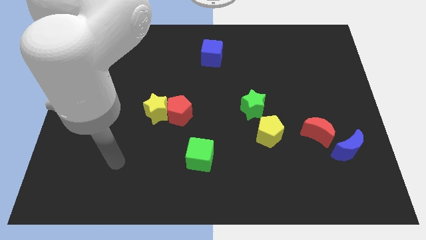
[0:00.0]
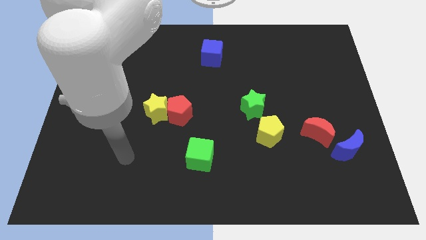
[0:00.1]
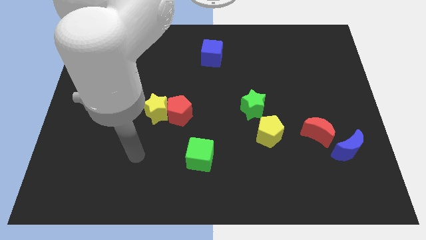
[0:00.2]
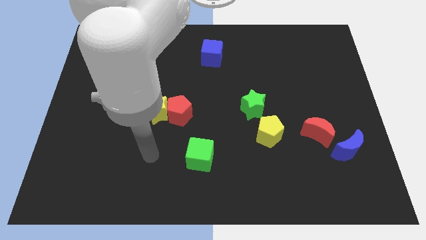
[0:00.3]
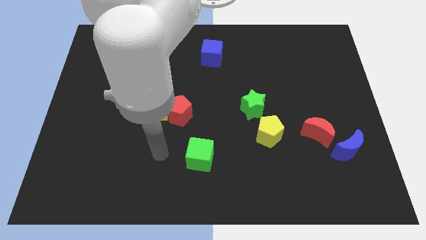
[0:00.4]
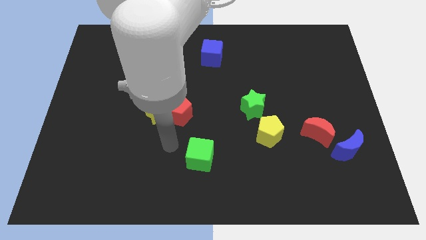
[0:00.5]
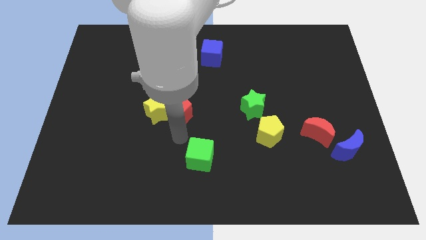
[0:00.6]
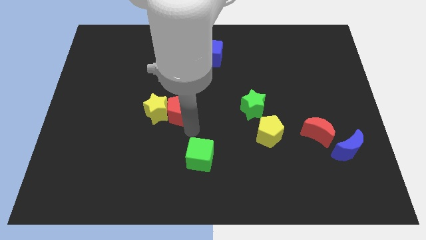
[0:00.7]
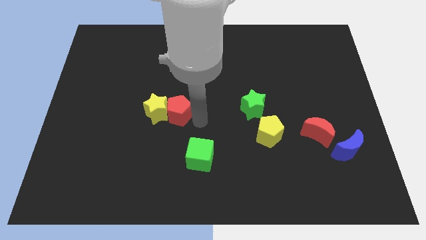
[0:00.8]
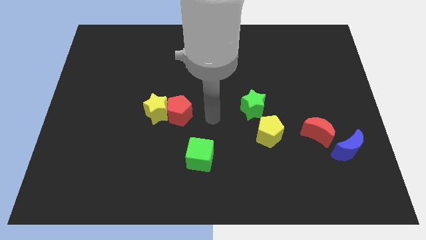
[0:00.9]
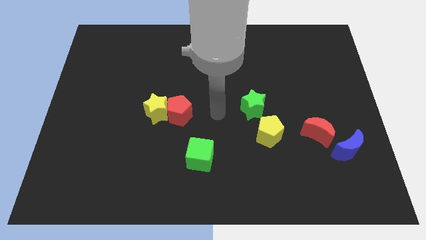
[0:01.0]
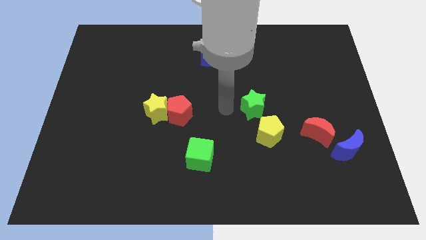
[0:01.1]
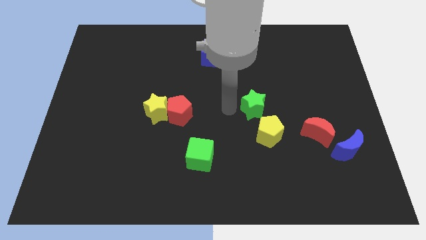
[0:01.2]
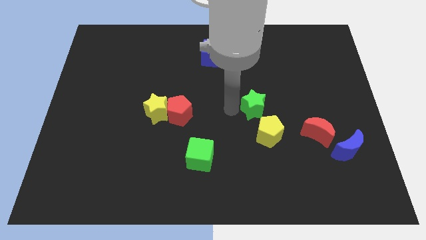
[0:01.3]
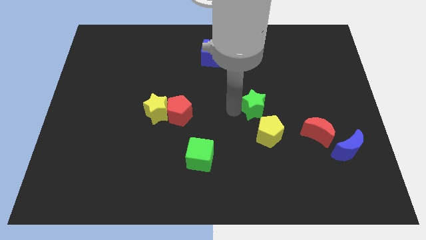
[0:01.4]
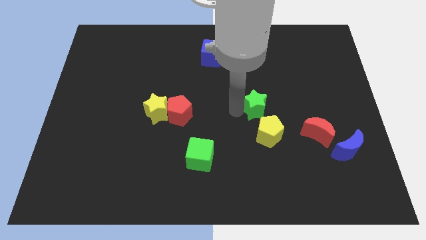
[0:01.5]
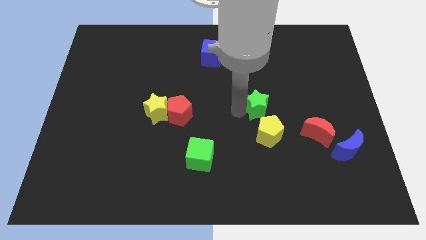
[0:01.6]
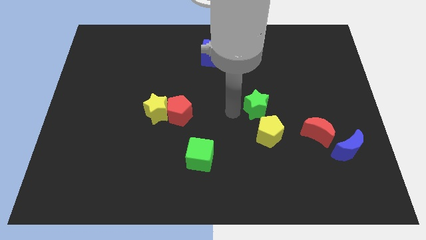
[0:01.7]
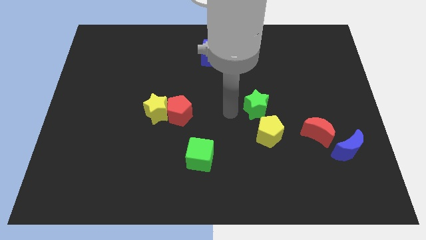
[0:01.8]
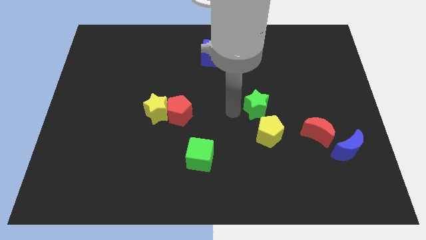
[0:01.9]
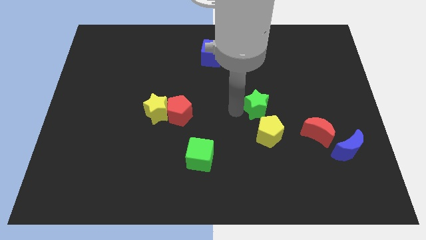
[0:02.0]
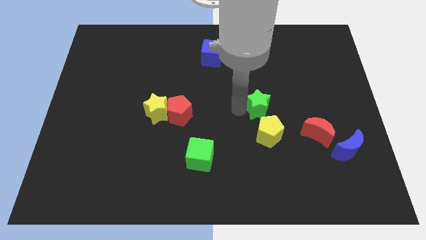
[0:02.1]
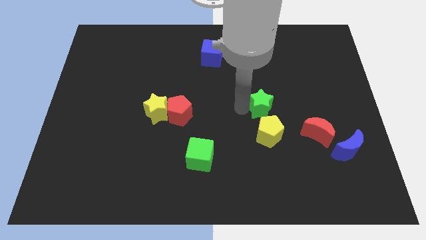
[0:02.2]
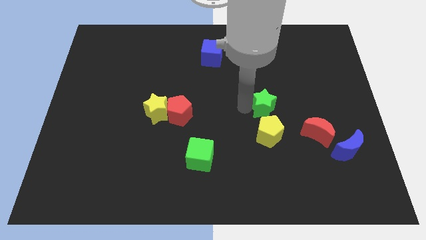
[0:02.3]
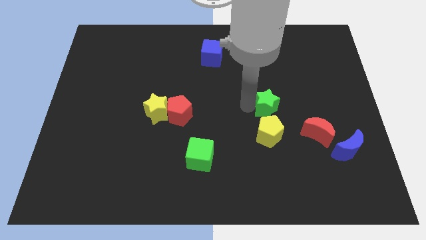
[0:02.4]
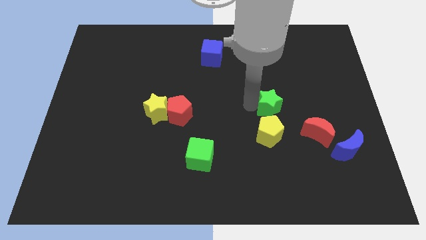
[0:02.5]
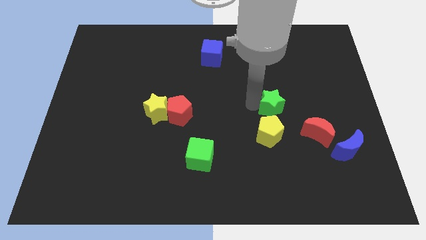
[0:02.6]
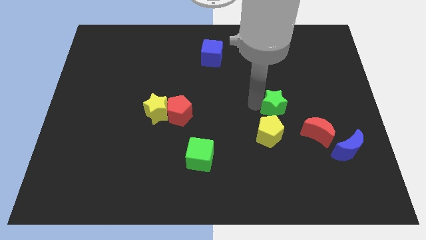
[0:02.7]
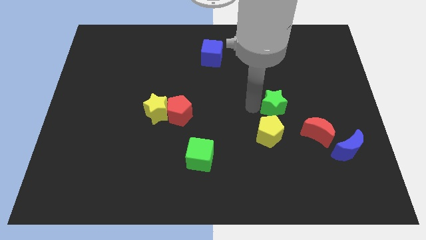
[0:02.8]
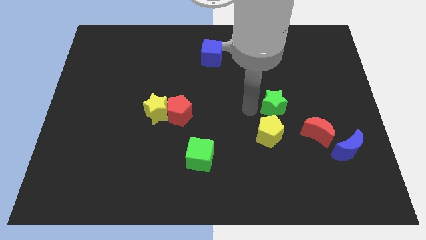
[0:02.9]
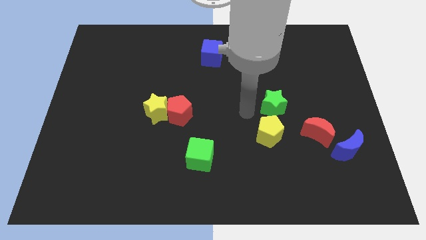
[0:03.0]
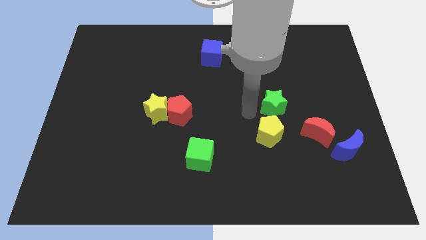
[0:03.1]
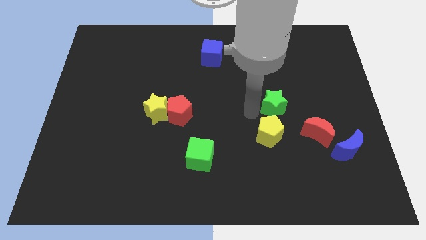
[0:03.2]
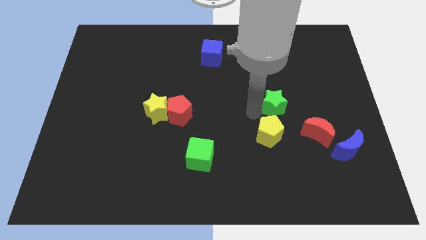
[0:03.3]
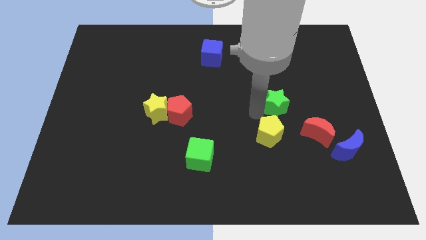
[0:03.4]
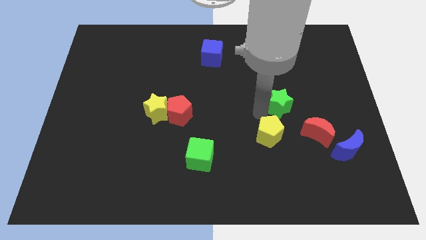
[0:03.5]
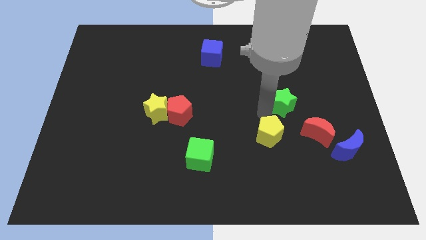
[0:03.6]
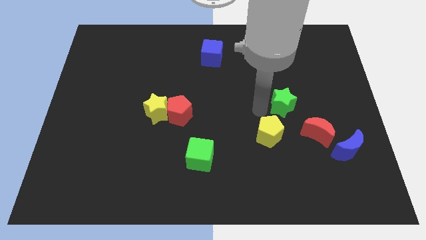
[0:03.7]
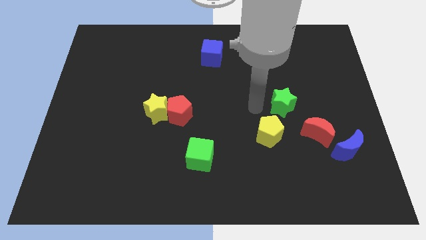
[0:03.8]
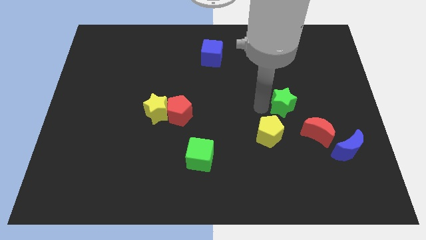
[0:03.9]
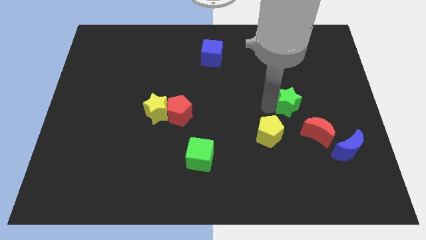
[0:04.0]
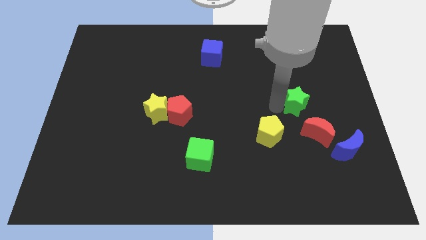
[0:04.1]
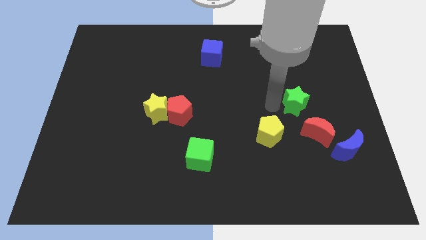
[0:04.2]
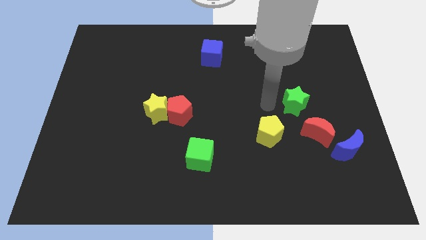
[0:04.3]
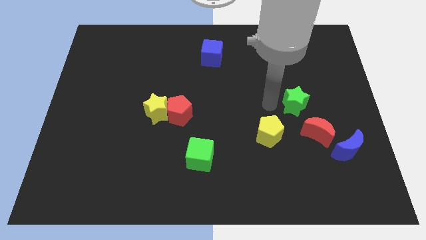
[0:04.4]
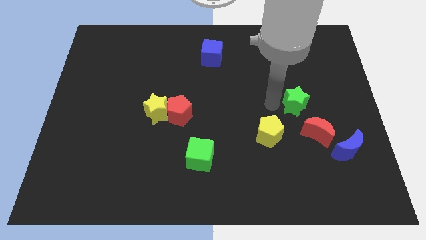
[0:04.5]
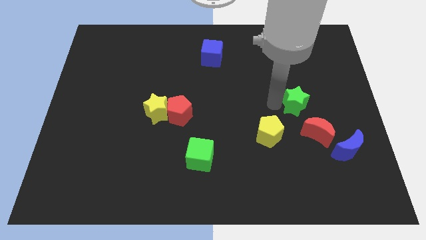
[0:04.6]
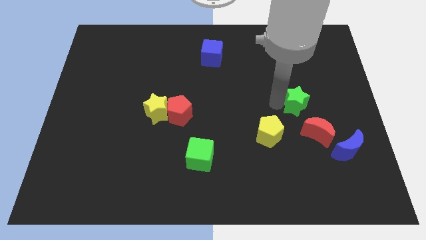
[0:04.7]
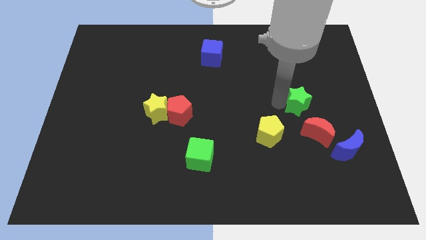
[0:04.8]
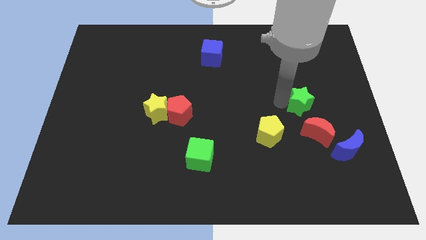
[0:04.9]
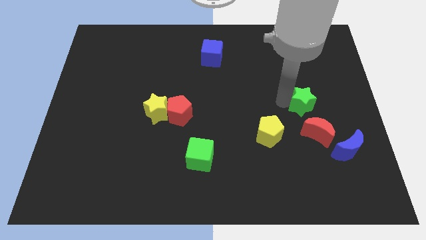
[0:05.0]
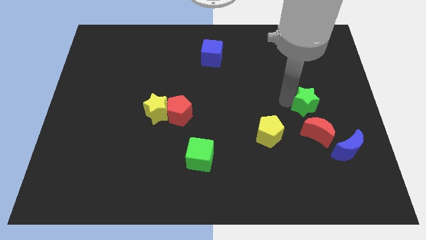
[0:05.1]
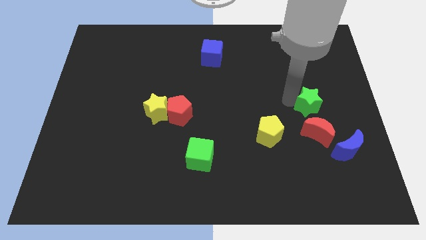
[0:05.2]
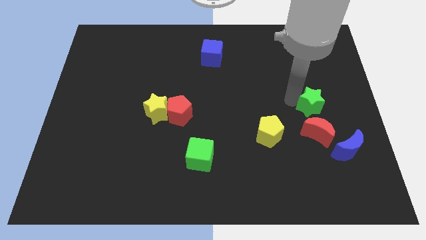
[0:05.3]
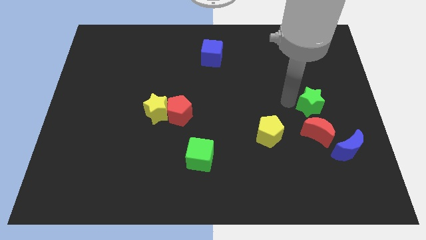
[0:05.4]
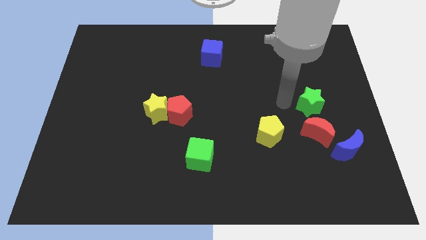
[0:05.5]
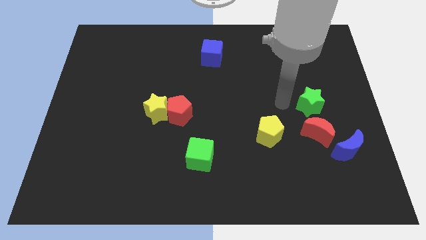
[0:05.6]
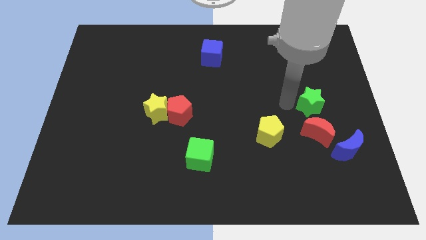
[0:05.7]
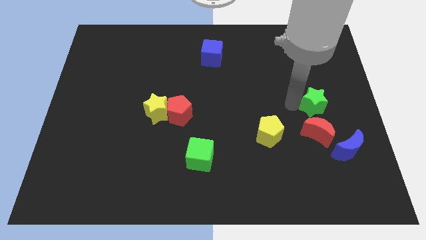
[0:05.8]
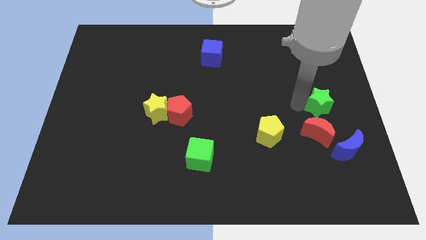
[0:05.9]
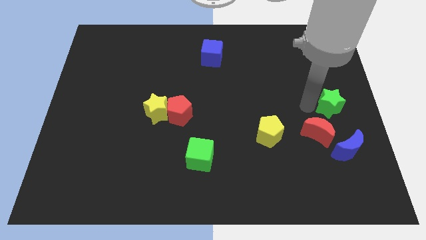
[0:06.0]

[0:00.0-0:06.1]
put the green star to the center right

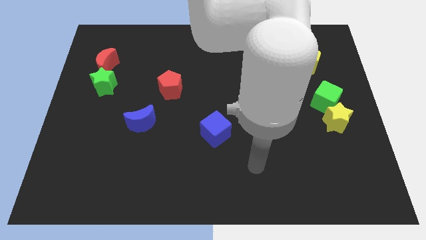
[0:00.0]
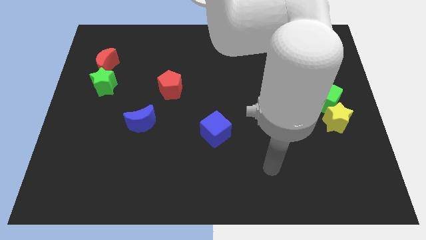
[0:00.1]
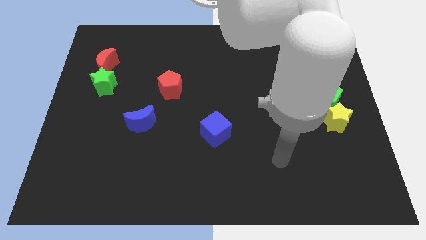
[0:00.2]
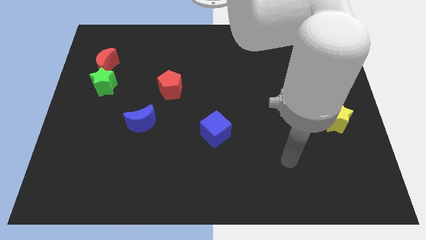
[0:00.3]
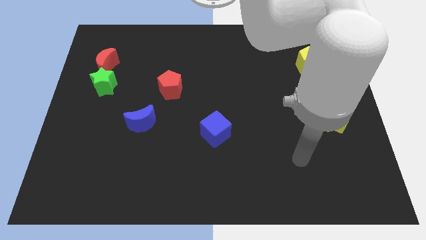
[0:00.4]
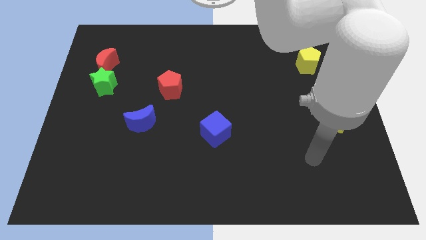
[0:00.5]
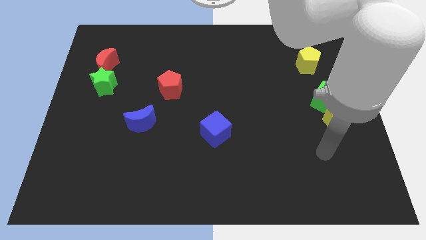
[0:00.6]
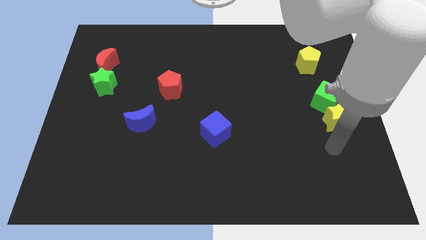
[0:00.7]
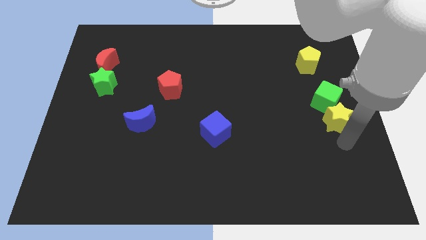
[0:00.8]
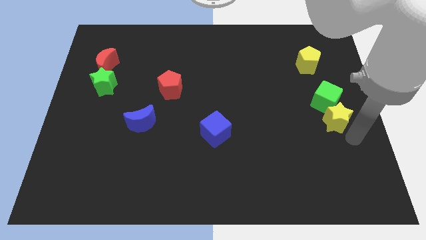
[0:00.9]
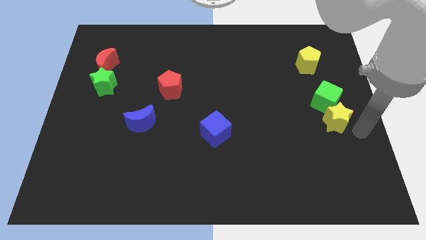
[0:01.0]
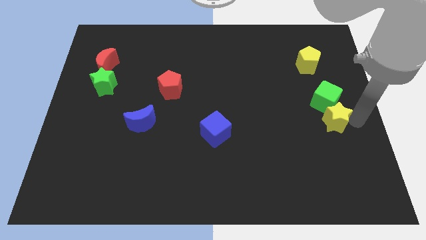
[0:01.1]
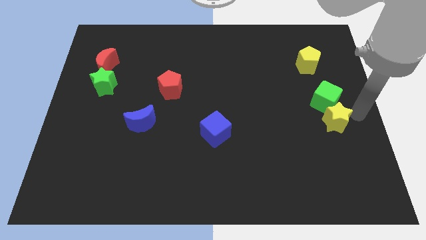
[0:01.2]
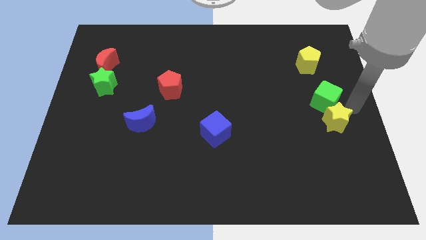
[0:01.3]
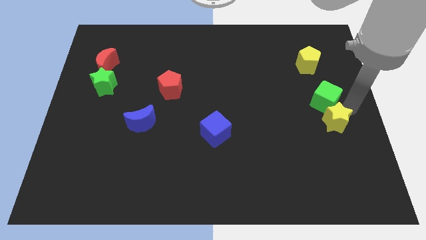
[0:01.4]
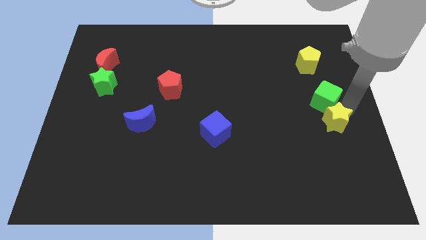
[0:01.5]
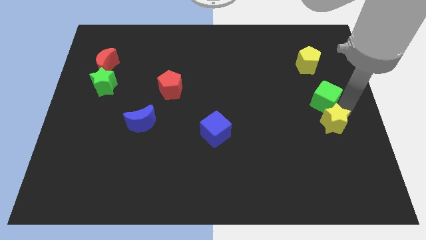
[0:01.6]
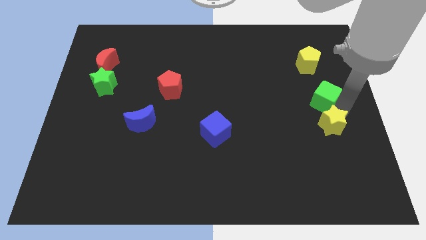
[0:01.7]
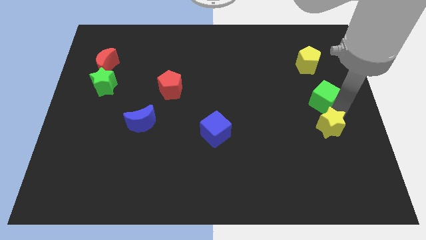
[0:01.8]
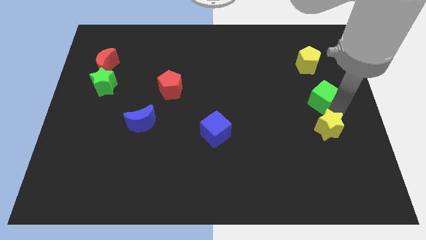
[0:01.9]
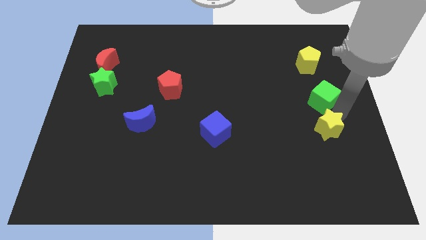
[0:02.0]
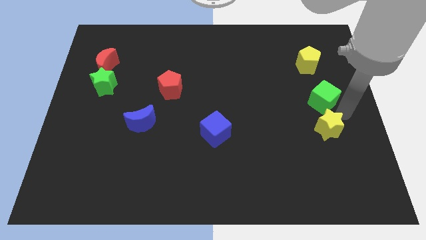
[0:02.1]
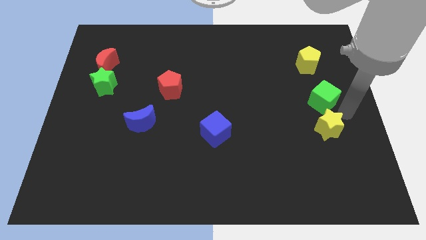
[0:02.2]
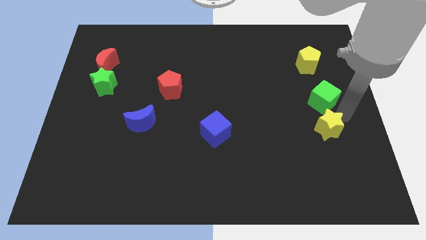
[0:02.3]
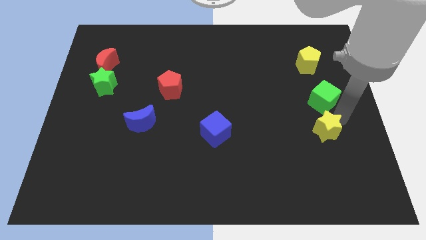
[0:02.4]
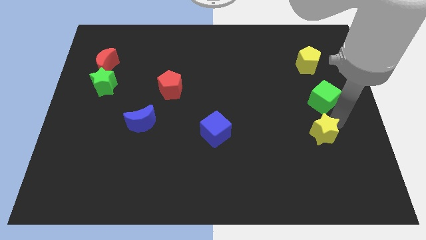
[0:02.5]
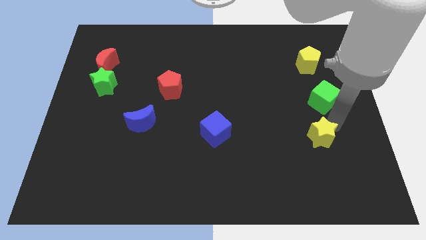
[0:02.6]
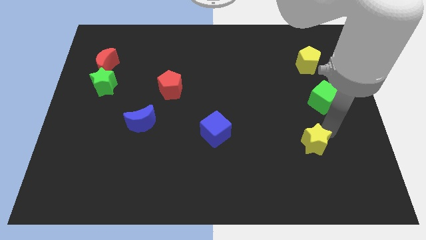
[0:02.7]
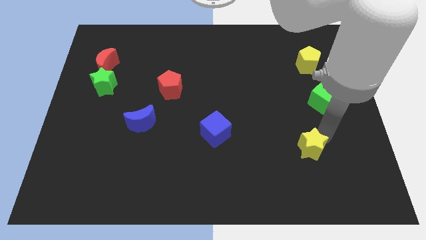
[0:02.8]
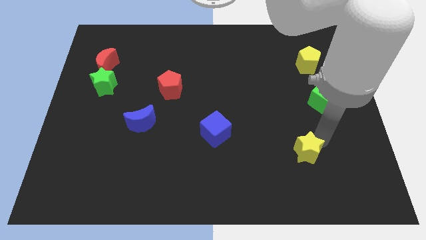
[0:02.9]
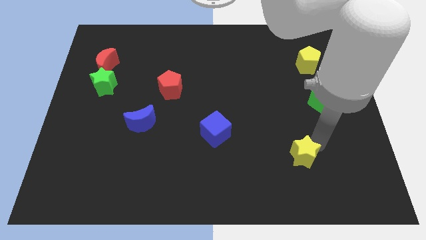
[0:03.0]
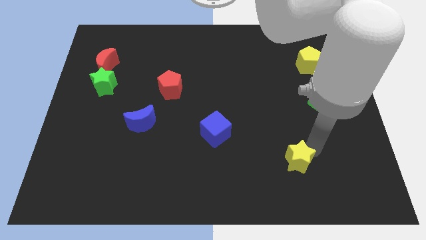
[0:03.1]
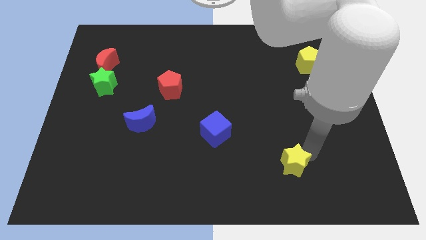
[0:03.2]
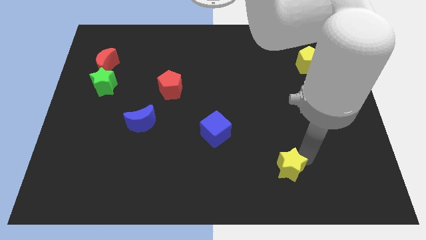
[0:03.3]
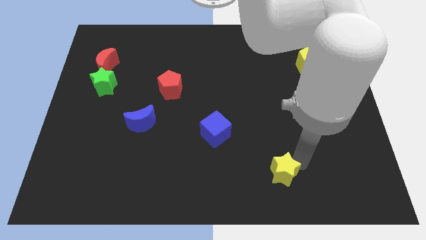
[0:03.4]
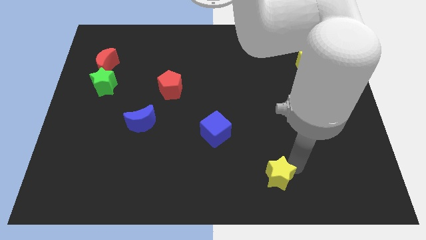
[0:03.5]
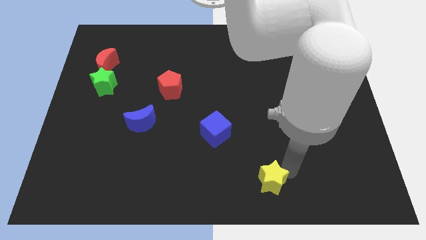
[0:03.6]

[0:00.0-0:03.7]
put the yellow star to the bottom side
